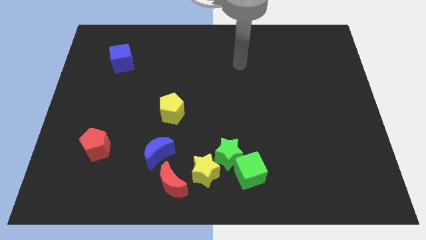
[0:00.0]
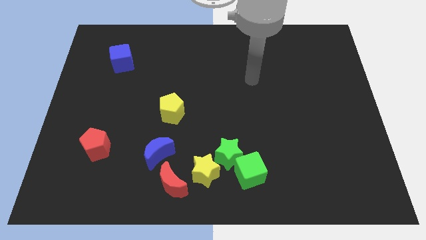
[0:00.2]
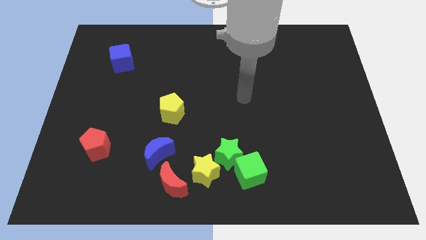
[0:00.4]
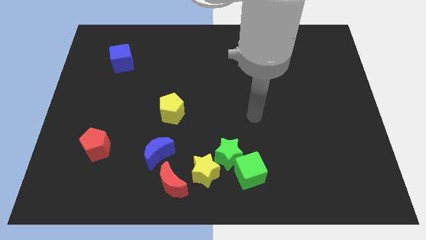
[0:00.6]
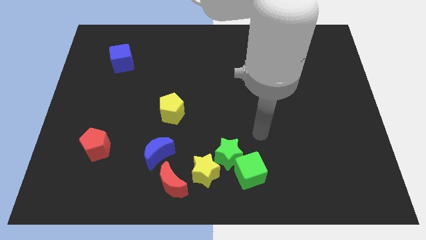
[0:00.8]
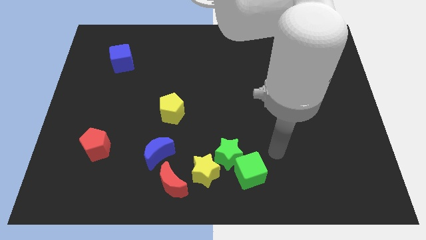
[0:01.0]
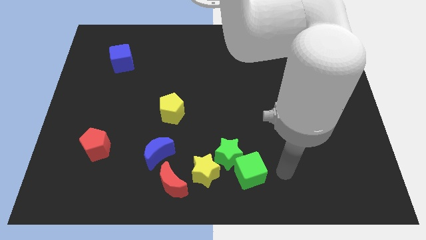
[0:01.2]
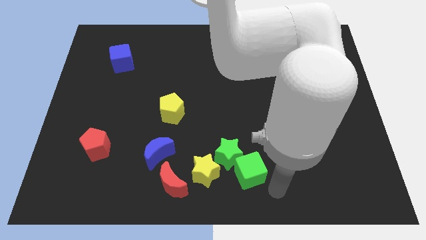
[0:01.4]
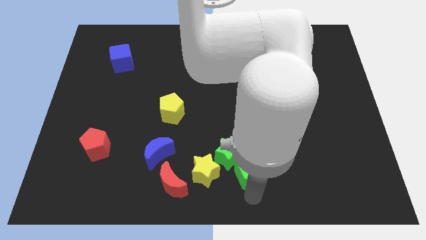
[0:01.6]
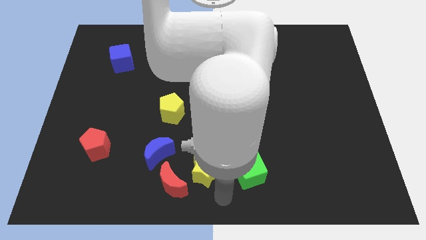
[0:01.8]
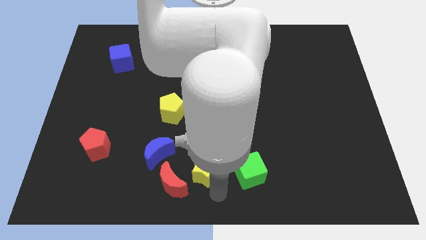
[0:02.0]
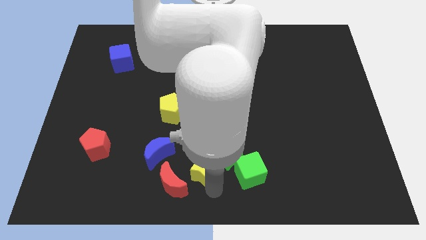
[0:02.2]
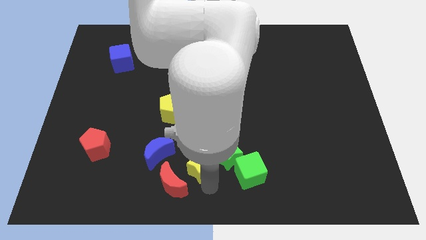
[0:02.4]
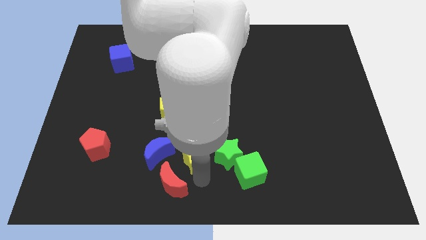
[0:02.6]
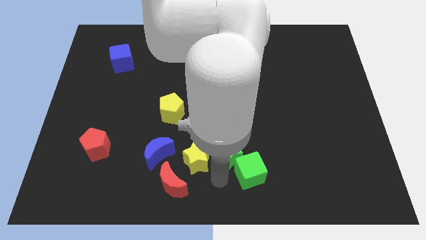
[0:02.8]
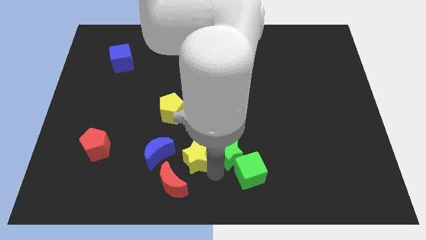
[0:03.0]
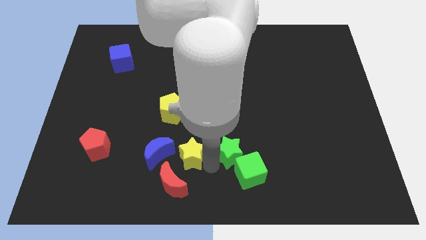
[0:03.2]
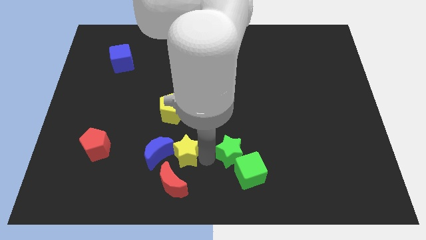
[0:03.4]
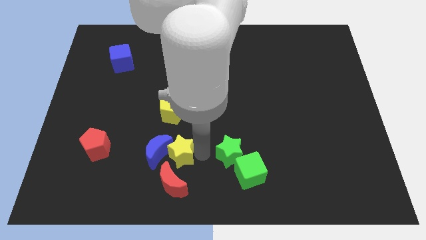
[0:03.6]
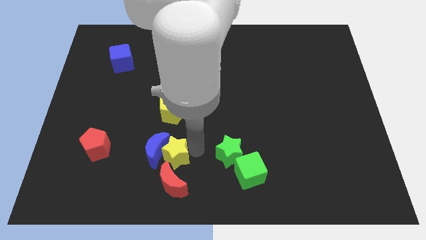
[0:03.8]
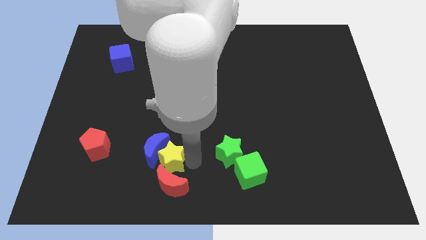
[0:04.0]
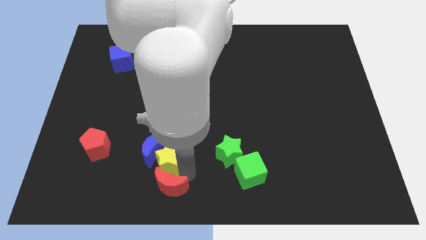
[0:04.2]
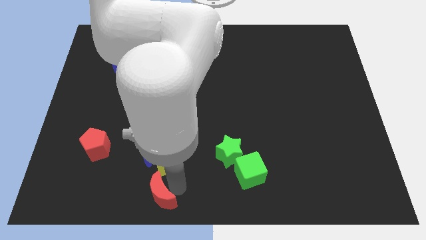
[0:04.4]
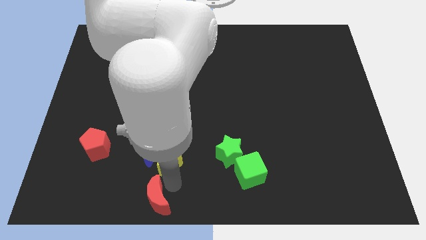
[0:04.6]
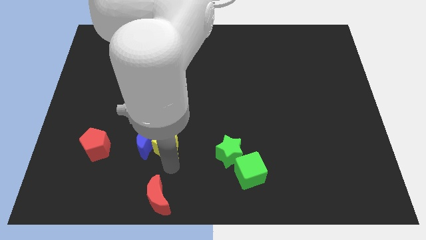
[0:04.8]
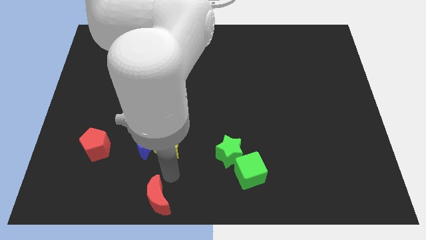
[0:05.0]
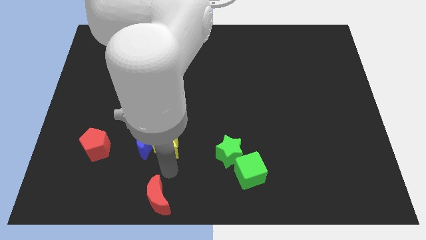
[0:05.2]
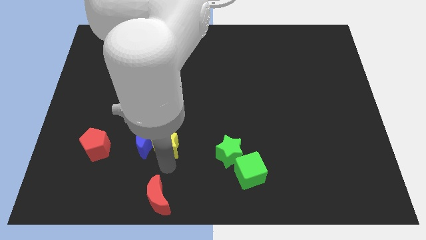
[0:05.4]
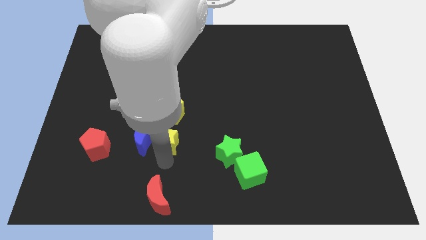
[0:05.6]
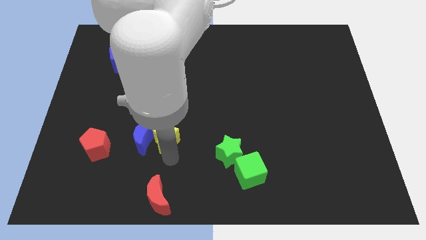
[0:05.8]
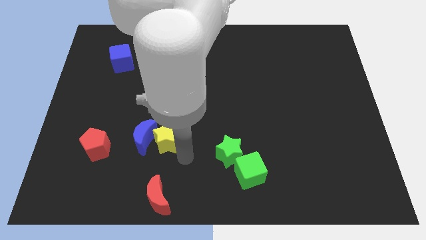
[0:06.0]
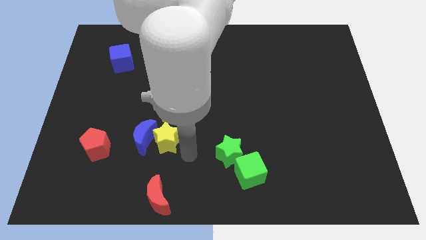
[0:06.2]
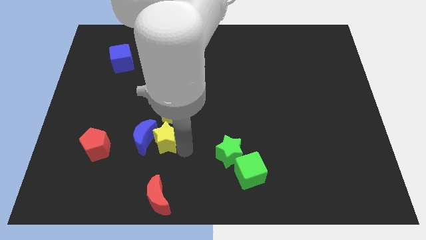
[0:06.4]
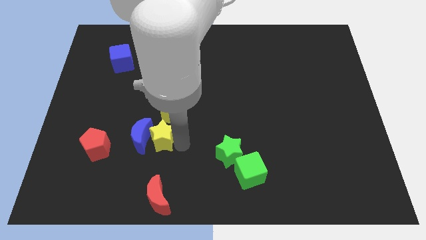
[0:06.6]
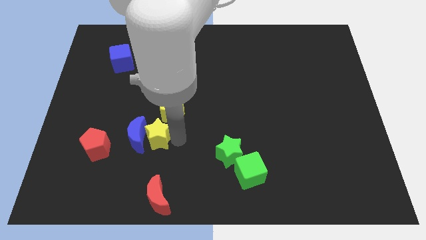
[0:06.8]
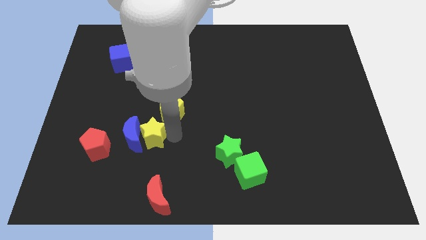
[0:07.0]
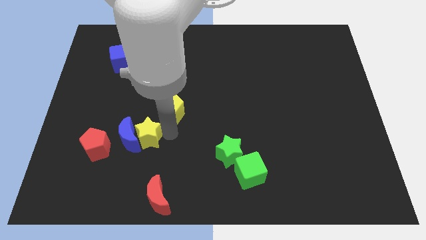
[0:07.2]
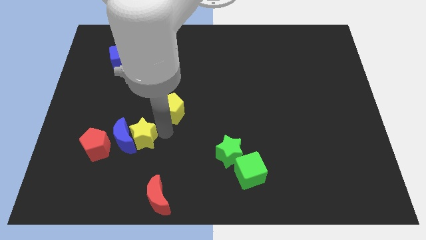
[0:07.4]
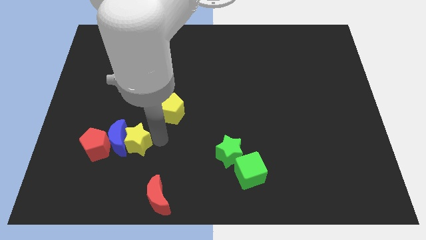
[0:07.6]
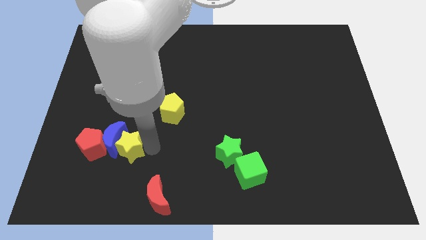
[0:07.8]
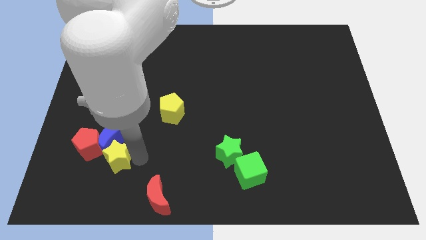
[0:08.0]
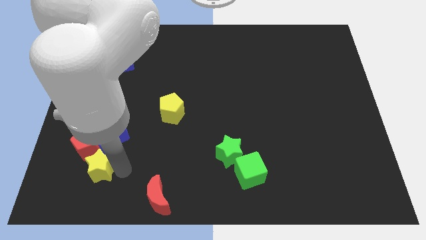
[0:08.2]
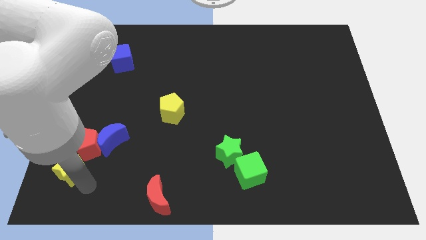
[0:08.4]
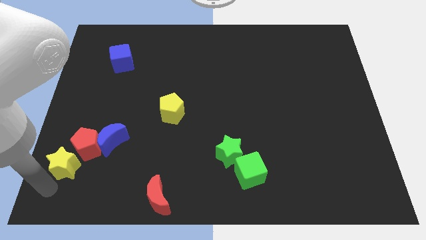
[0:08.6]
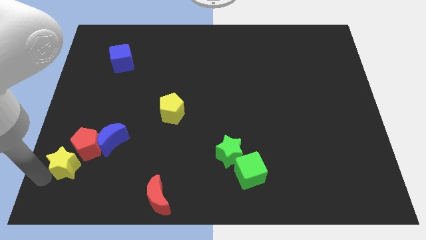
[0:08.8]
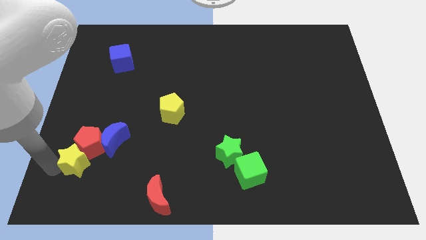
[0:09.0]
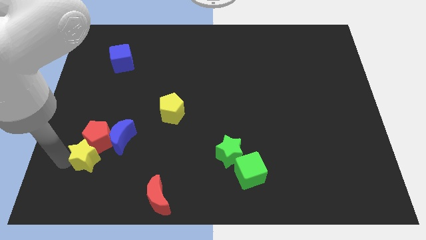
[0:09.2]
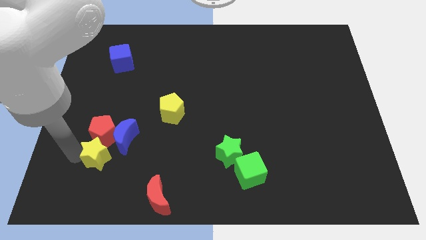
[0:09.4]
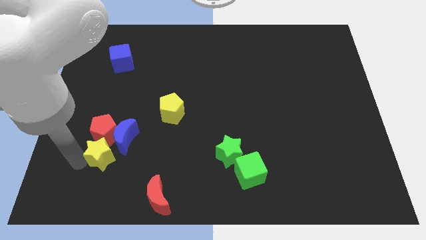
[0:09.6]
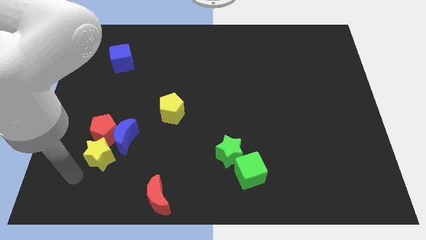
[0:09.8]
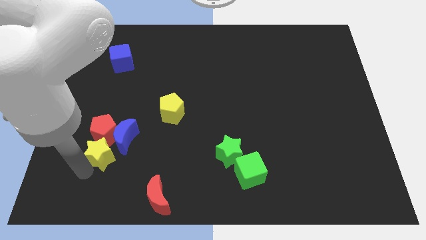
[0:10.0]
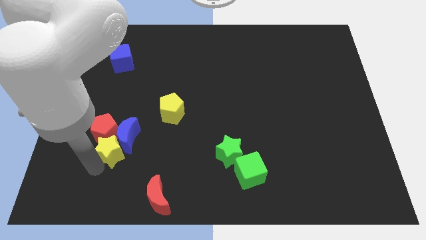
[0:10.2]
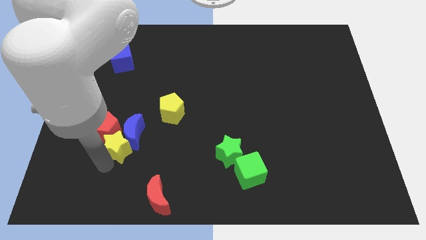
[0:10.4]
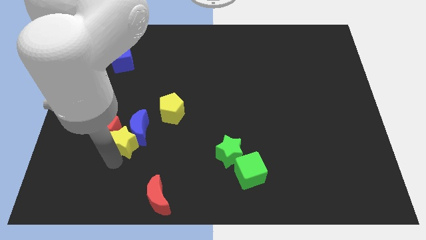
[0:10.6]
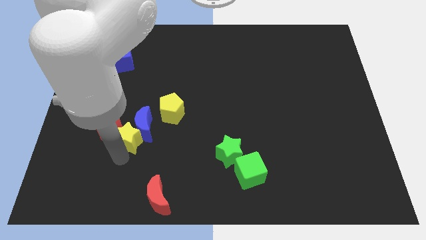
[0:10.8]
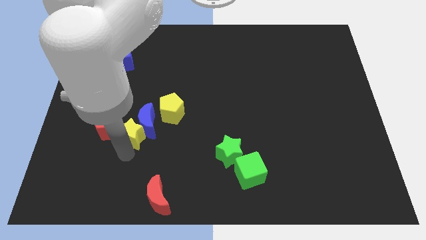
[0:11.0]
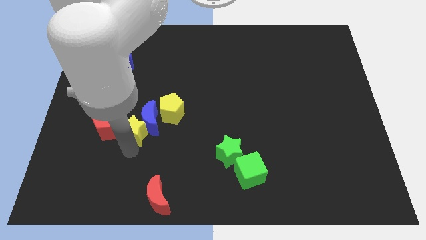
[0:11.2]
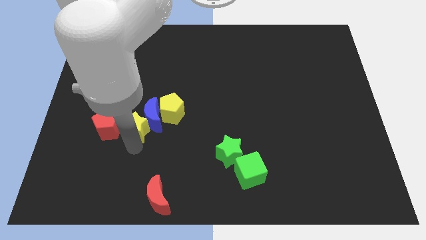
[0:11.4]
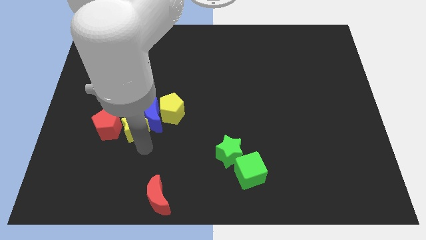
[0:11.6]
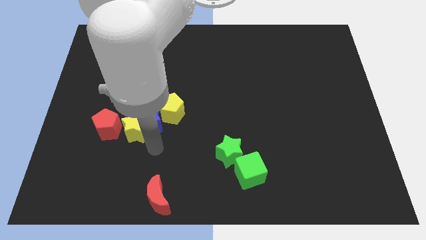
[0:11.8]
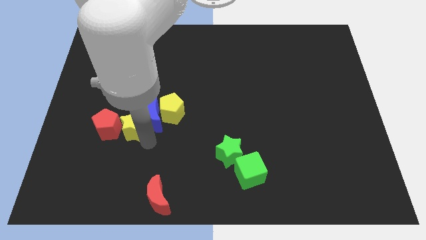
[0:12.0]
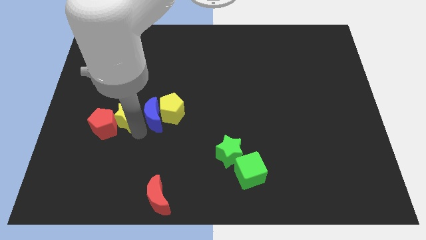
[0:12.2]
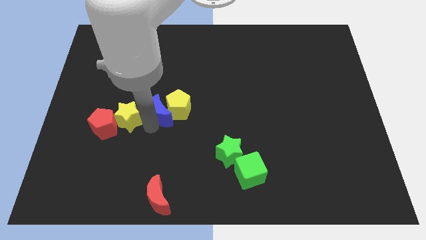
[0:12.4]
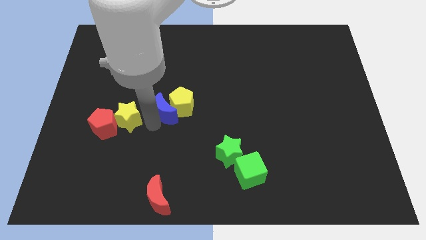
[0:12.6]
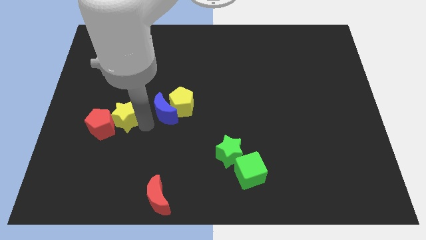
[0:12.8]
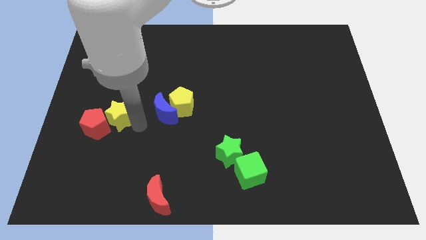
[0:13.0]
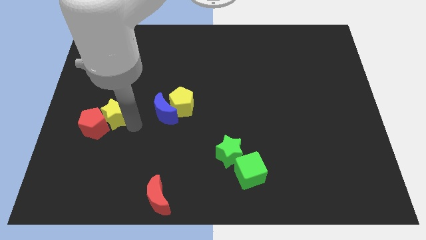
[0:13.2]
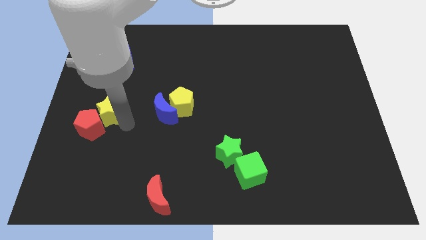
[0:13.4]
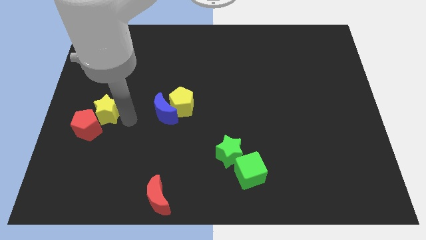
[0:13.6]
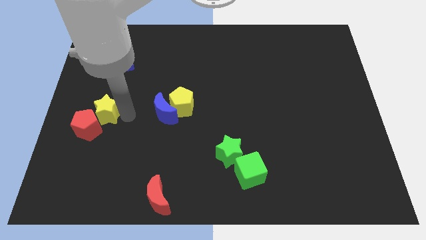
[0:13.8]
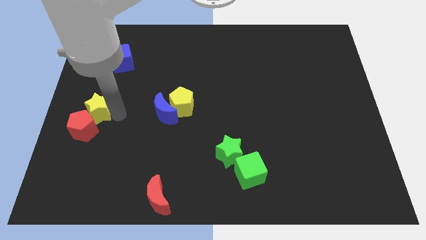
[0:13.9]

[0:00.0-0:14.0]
move the yellow star to the center left
